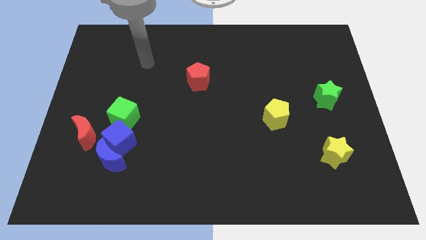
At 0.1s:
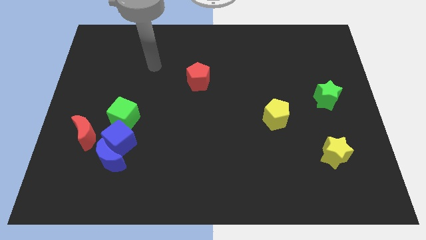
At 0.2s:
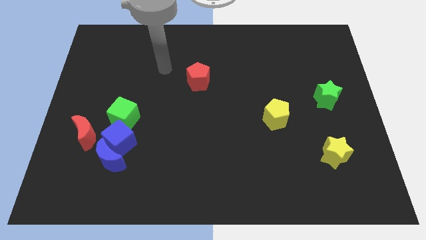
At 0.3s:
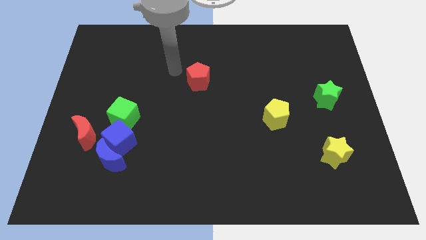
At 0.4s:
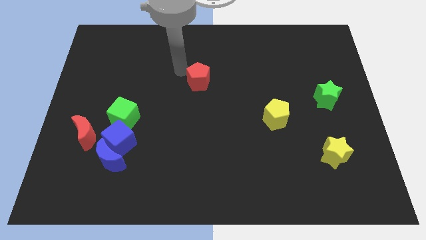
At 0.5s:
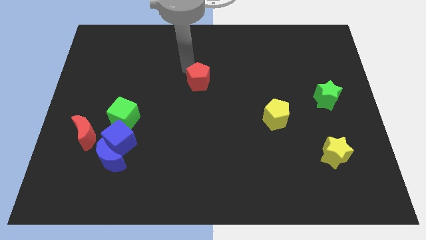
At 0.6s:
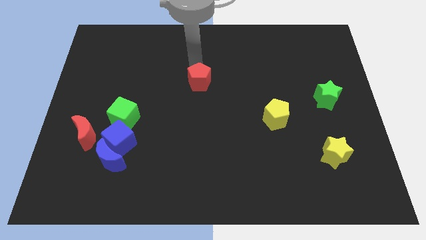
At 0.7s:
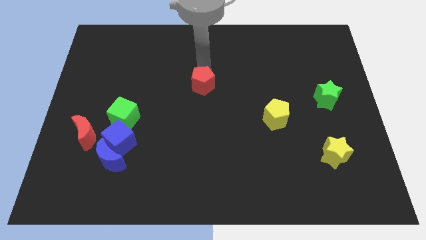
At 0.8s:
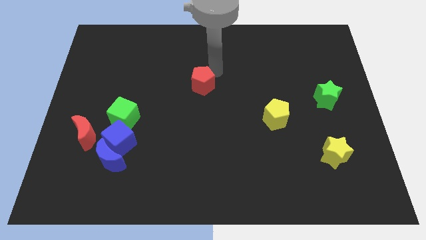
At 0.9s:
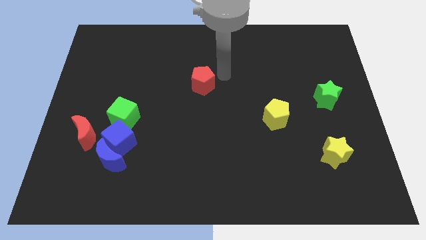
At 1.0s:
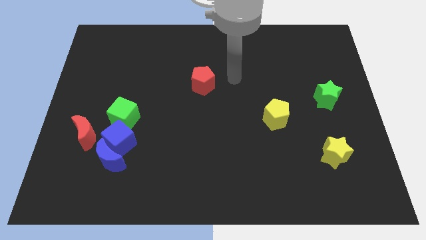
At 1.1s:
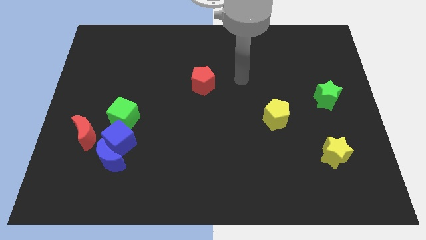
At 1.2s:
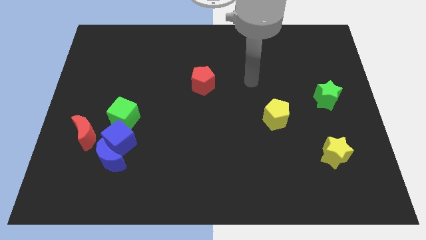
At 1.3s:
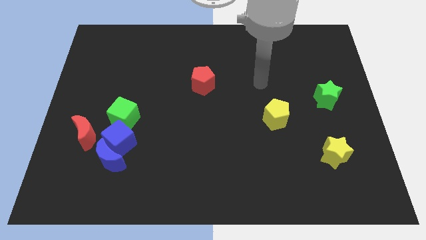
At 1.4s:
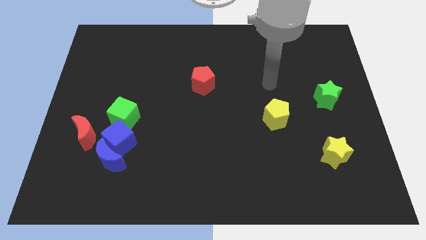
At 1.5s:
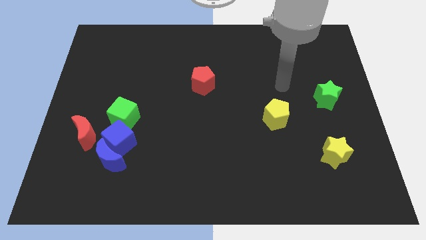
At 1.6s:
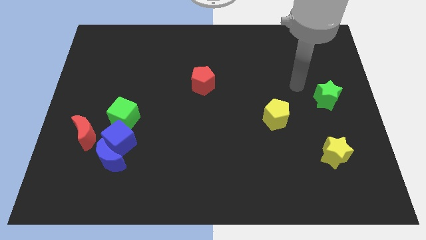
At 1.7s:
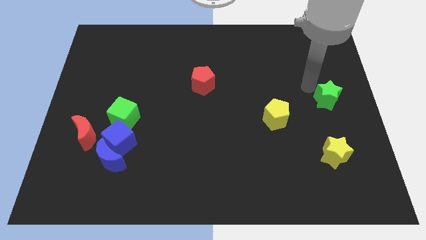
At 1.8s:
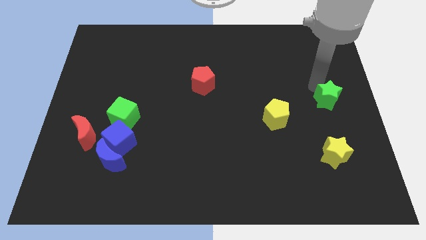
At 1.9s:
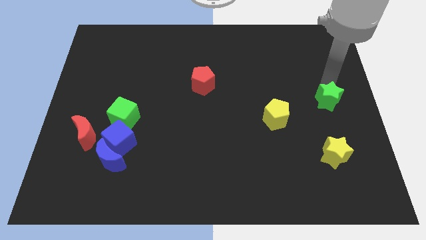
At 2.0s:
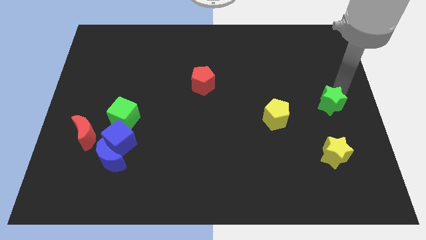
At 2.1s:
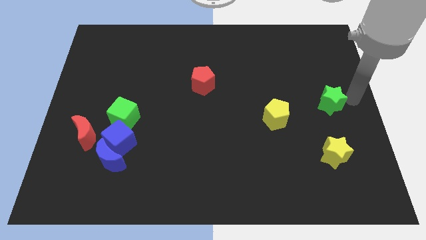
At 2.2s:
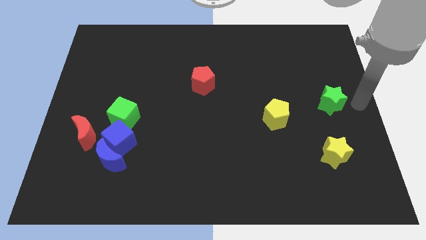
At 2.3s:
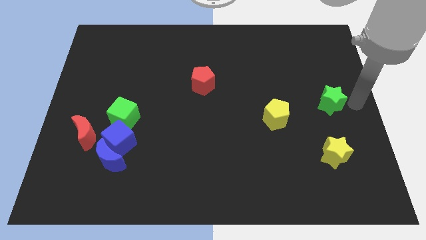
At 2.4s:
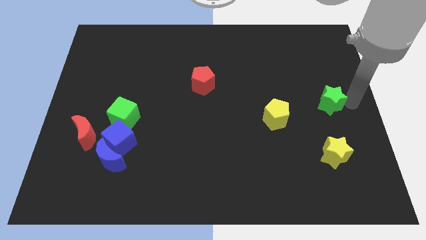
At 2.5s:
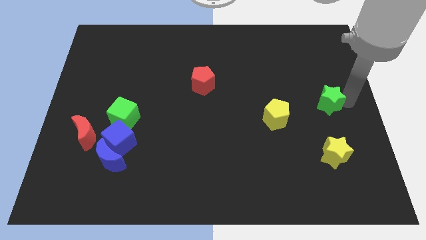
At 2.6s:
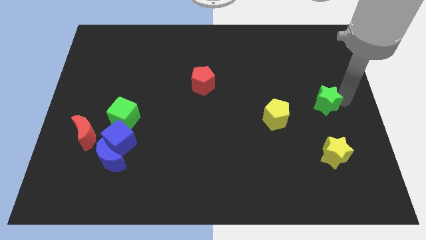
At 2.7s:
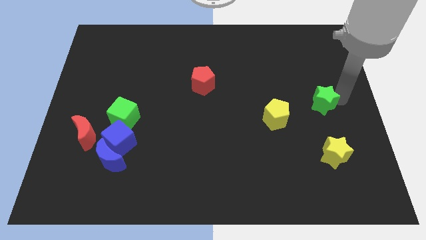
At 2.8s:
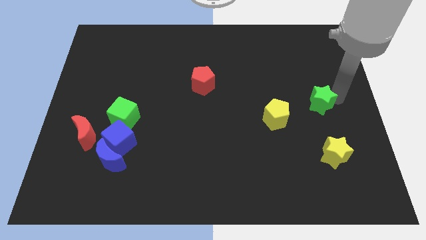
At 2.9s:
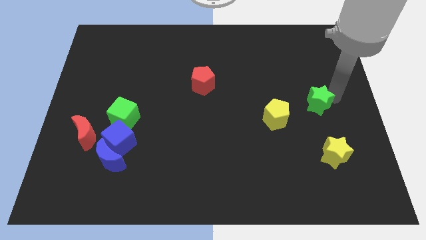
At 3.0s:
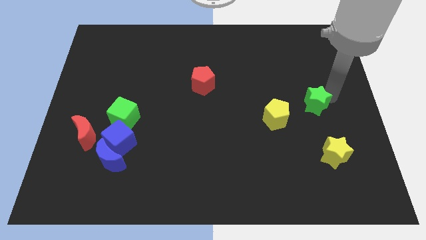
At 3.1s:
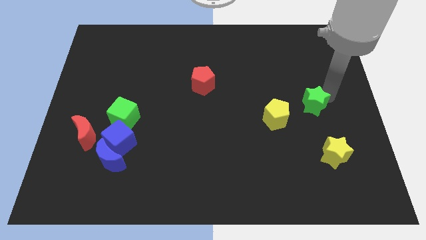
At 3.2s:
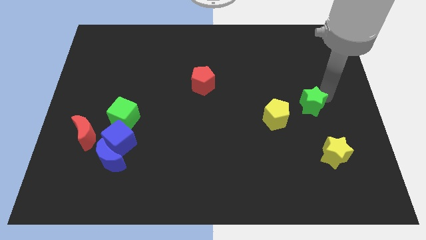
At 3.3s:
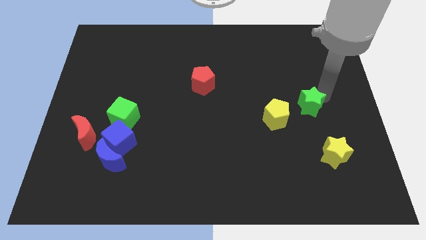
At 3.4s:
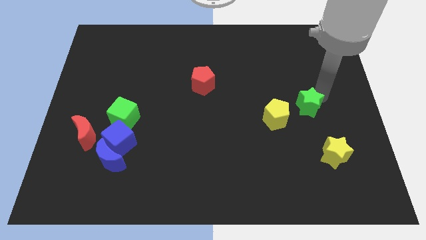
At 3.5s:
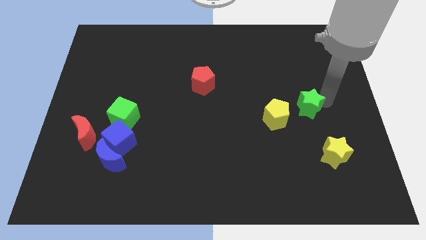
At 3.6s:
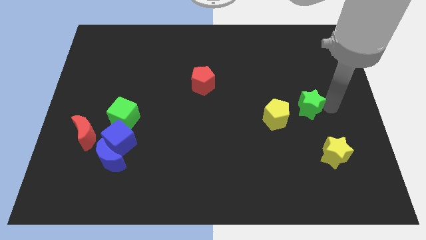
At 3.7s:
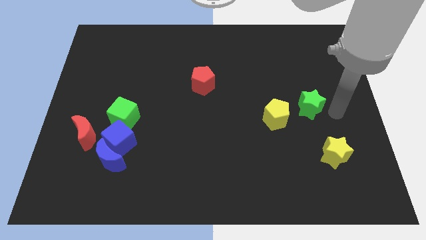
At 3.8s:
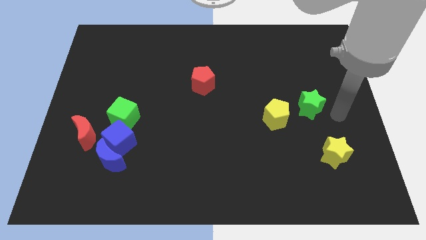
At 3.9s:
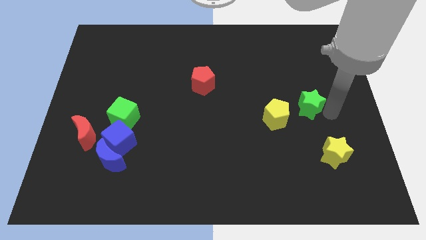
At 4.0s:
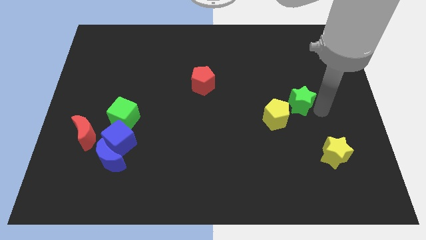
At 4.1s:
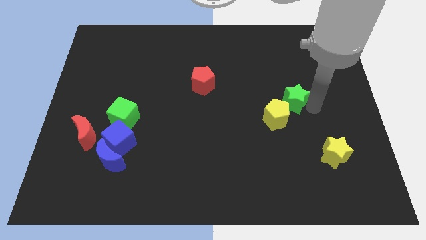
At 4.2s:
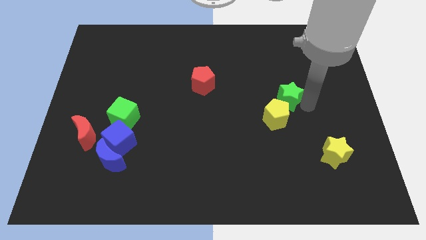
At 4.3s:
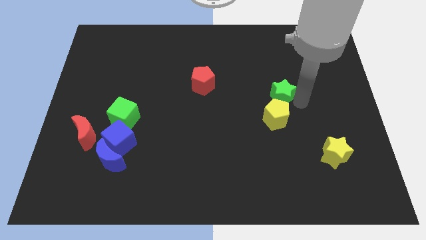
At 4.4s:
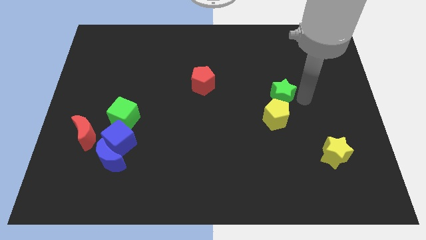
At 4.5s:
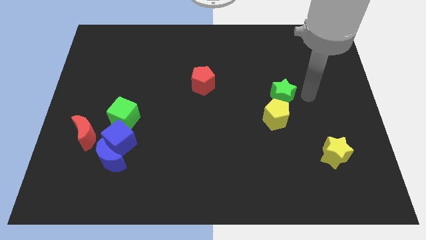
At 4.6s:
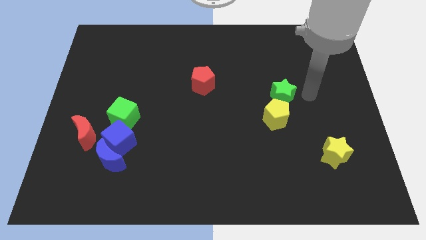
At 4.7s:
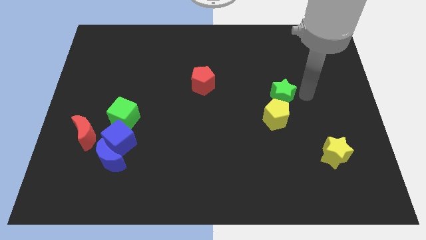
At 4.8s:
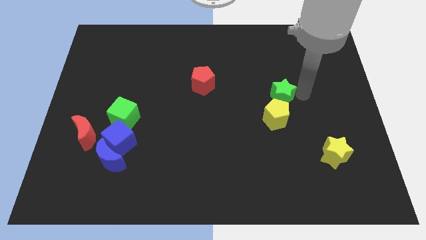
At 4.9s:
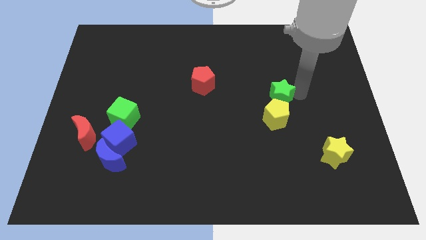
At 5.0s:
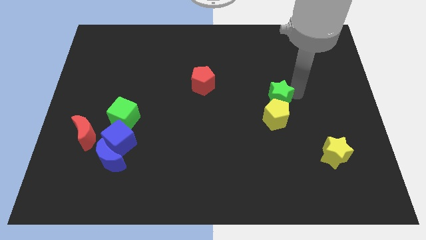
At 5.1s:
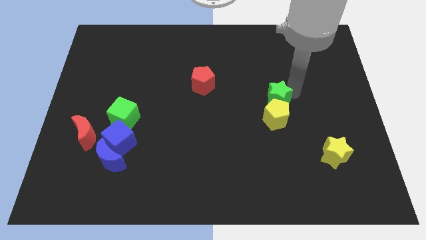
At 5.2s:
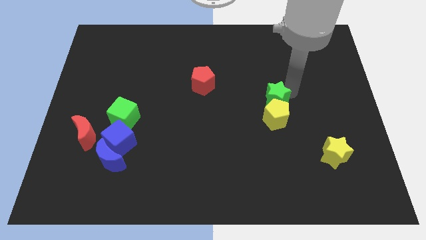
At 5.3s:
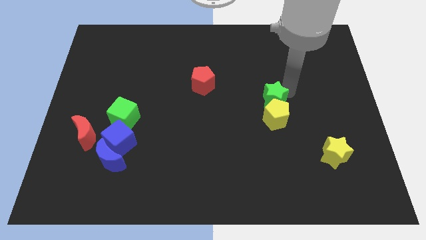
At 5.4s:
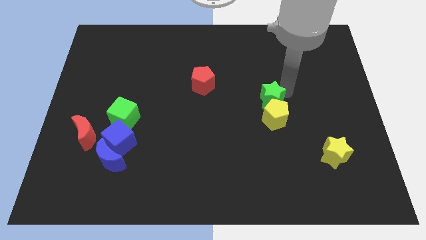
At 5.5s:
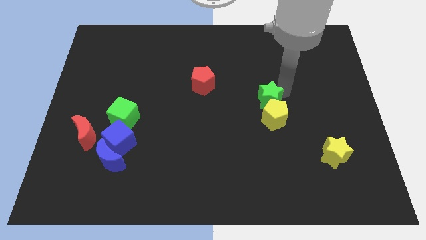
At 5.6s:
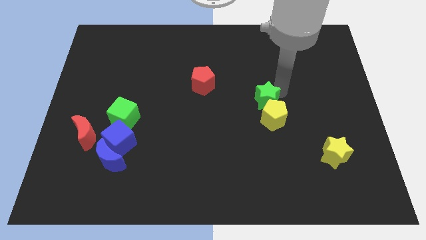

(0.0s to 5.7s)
push the green star to the center

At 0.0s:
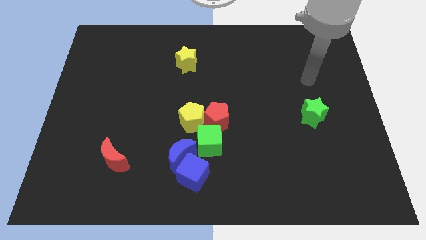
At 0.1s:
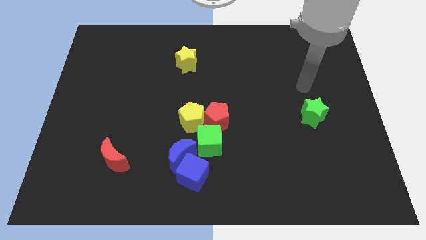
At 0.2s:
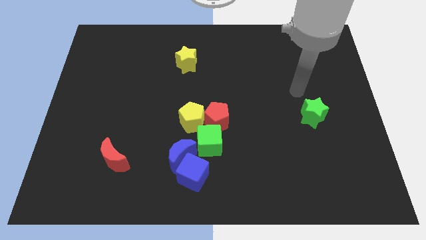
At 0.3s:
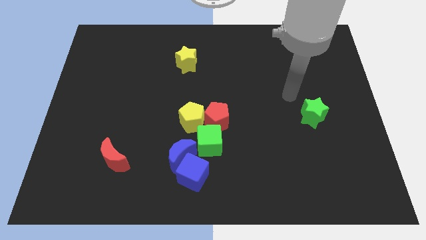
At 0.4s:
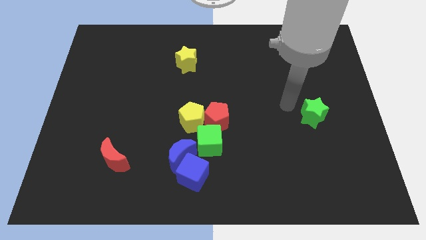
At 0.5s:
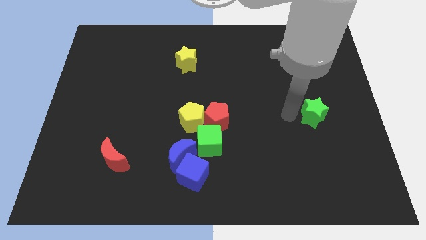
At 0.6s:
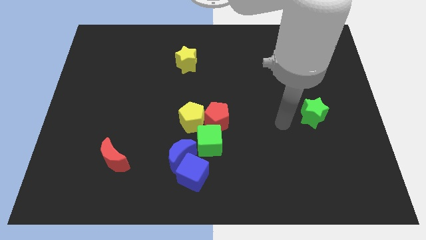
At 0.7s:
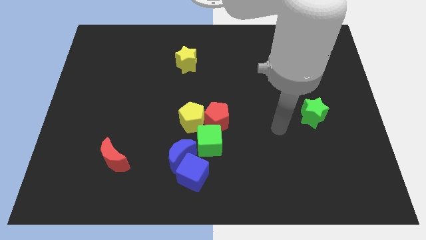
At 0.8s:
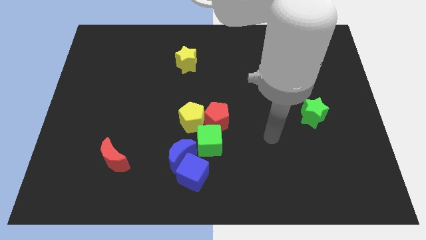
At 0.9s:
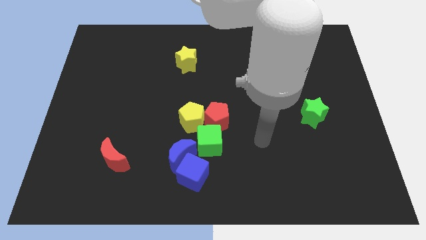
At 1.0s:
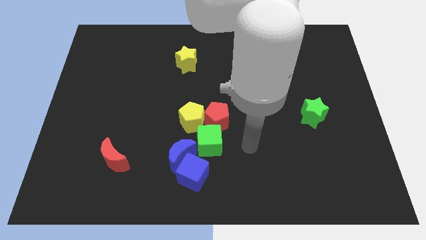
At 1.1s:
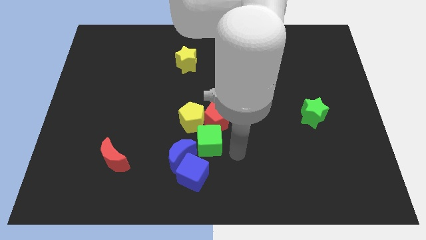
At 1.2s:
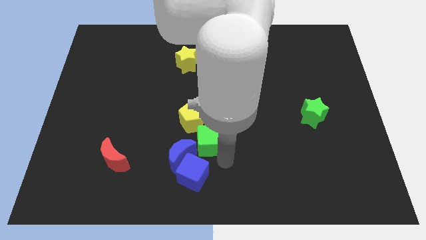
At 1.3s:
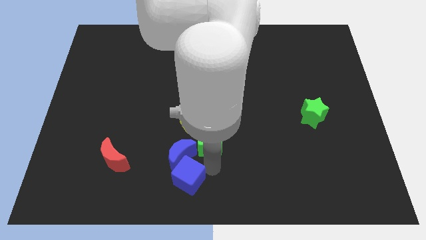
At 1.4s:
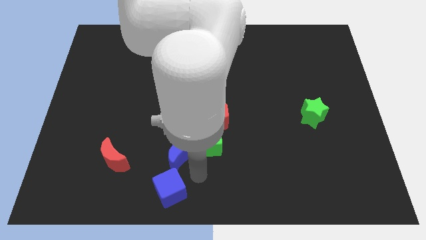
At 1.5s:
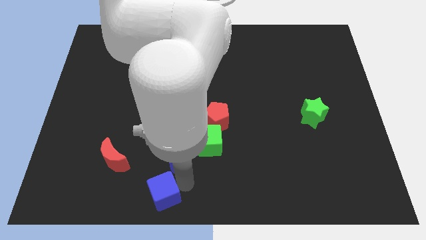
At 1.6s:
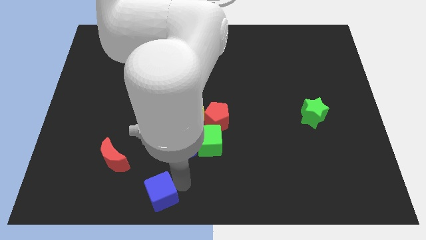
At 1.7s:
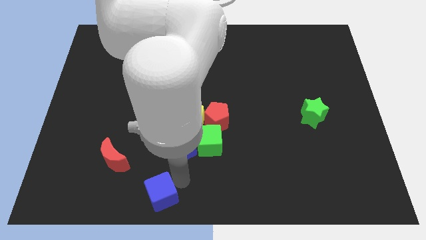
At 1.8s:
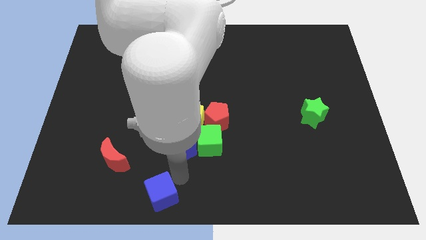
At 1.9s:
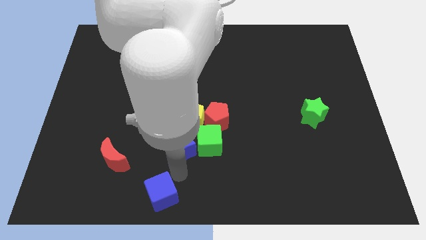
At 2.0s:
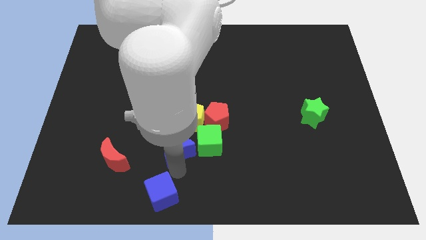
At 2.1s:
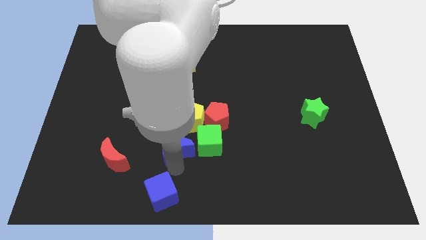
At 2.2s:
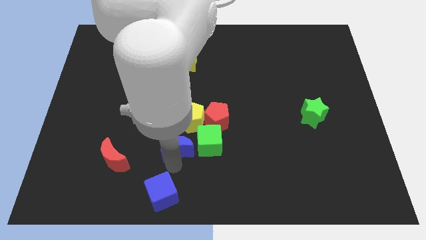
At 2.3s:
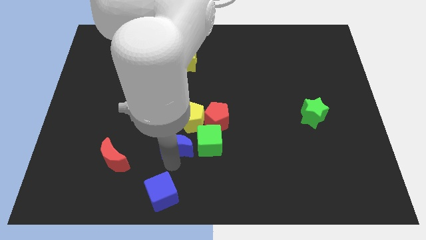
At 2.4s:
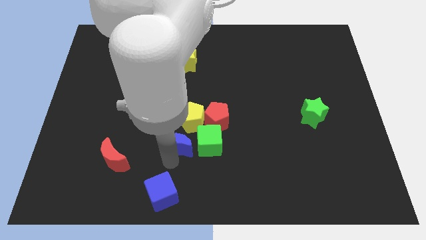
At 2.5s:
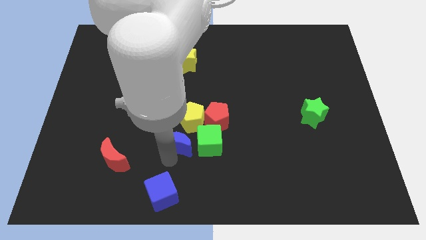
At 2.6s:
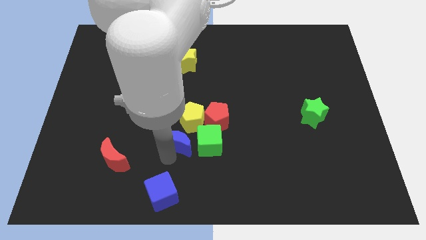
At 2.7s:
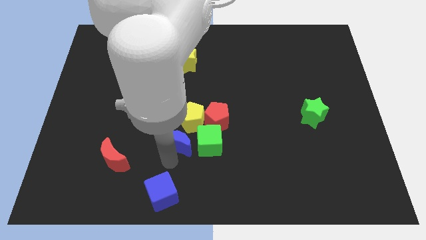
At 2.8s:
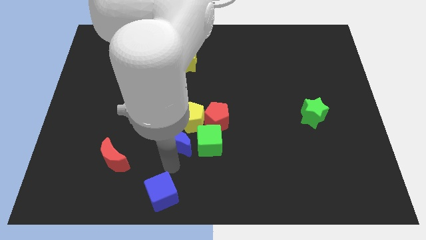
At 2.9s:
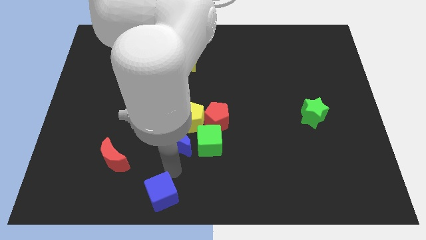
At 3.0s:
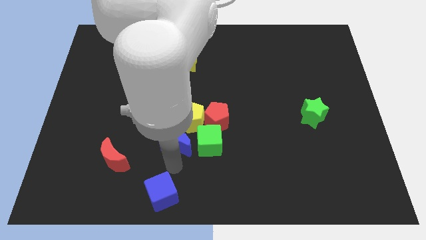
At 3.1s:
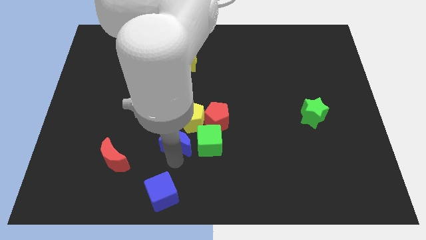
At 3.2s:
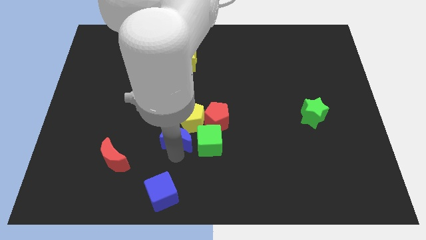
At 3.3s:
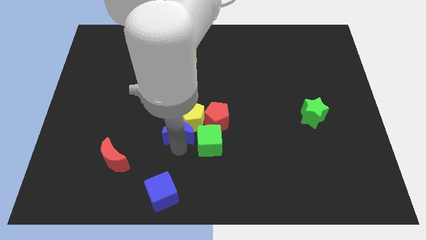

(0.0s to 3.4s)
slide the blue moon to the middle of the board
